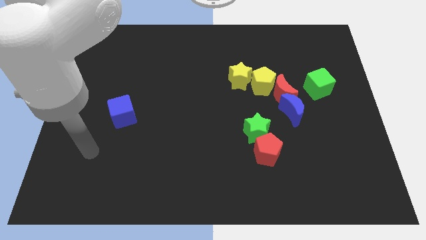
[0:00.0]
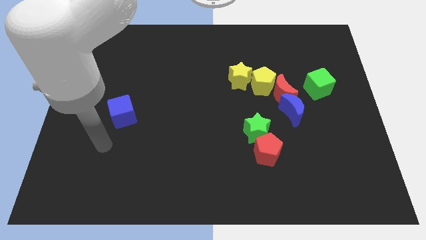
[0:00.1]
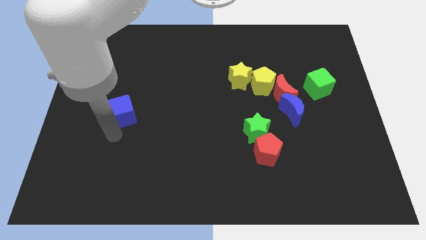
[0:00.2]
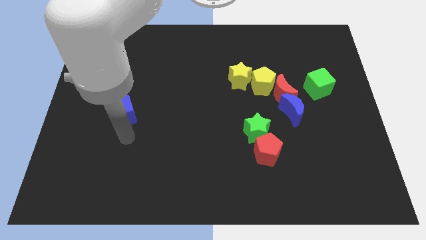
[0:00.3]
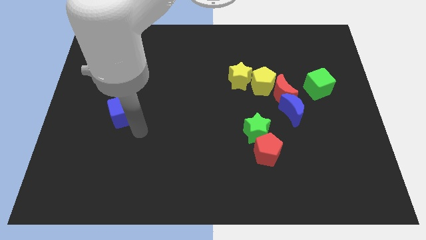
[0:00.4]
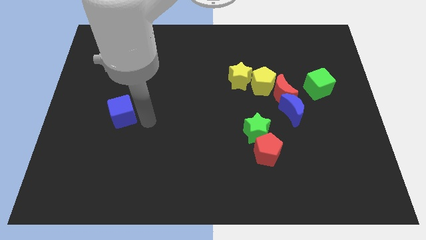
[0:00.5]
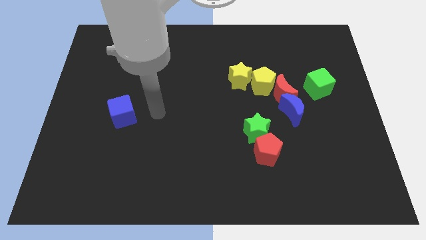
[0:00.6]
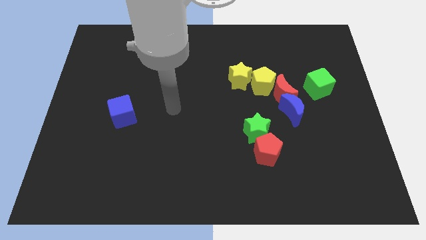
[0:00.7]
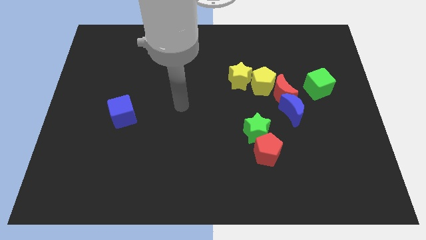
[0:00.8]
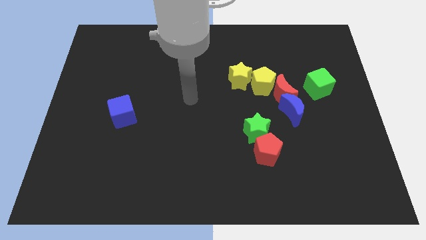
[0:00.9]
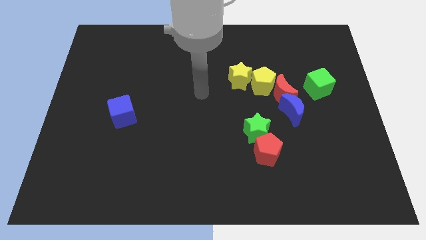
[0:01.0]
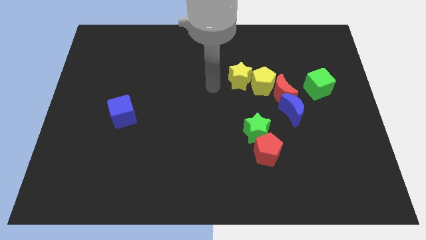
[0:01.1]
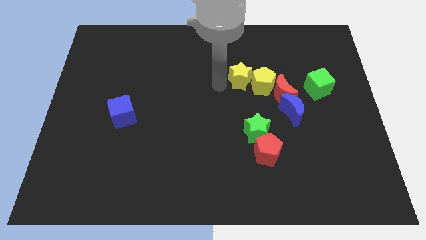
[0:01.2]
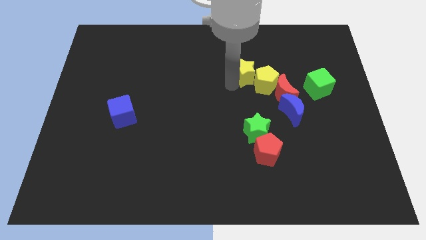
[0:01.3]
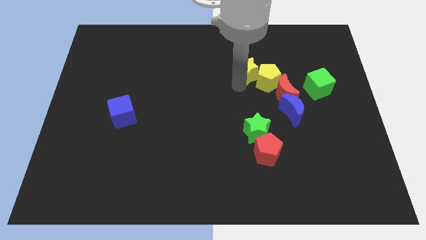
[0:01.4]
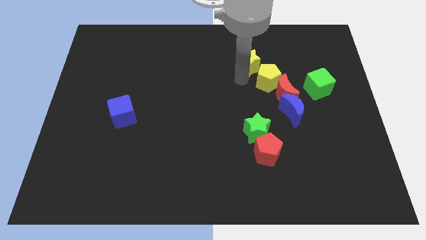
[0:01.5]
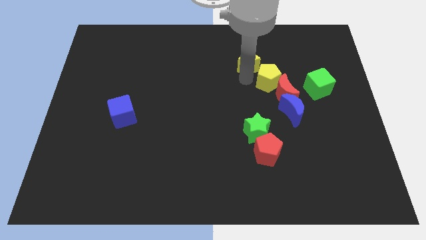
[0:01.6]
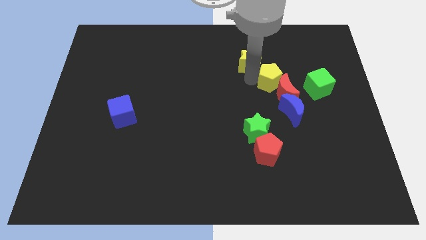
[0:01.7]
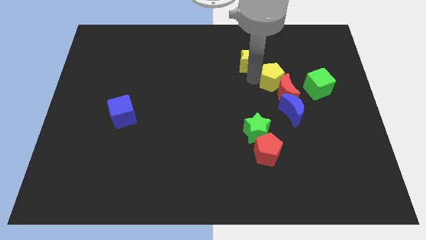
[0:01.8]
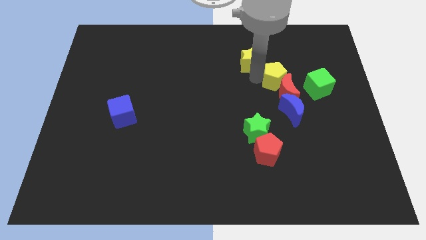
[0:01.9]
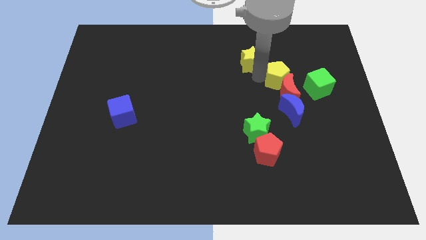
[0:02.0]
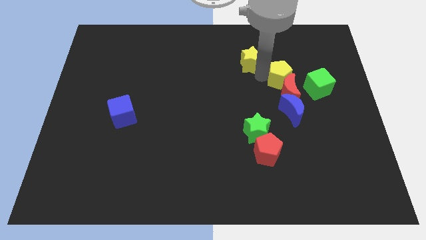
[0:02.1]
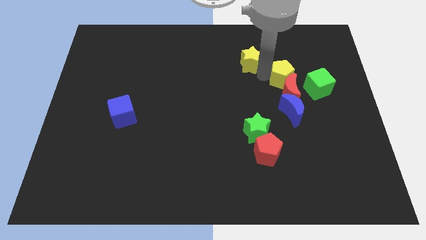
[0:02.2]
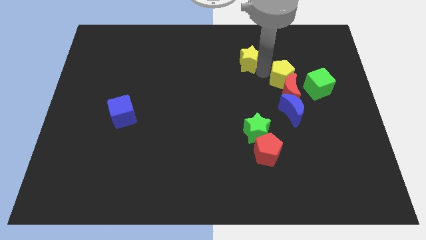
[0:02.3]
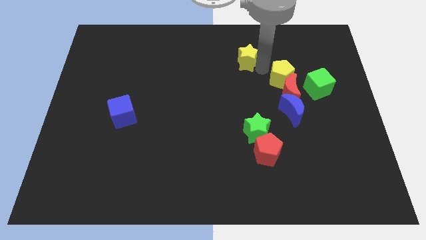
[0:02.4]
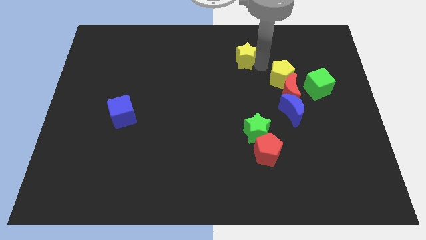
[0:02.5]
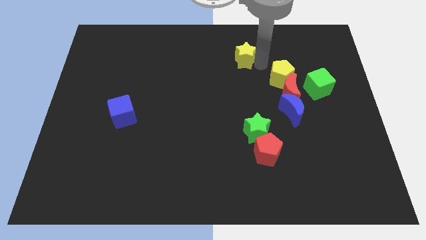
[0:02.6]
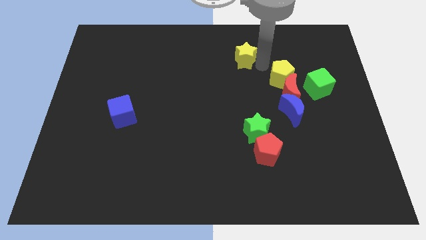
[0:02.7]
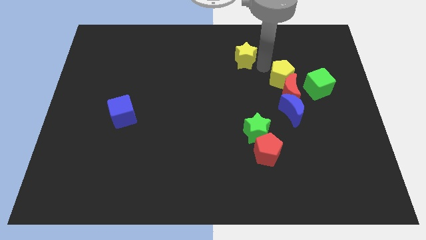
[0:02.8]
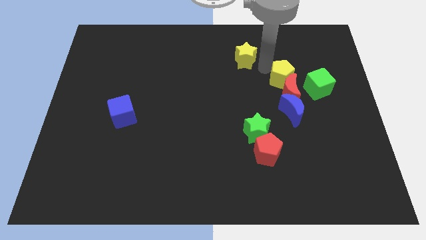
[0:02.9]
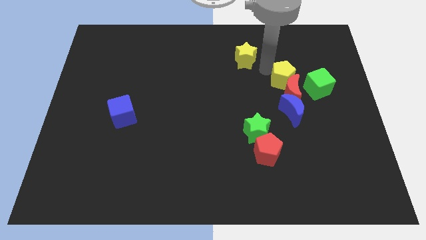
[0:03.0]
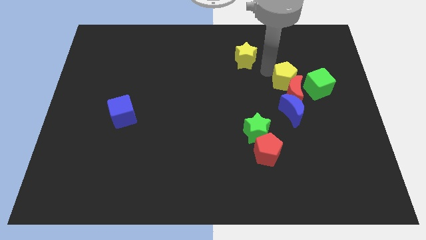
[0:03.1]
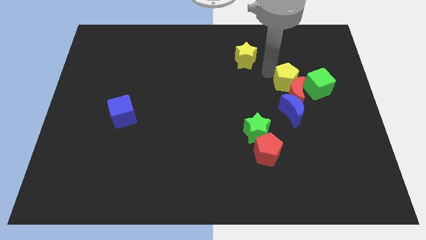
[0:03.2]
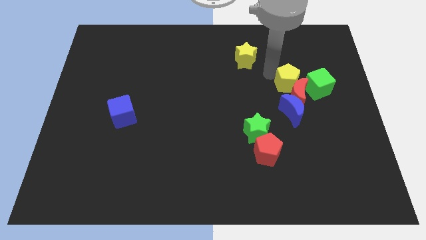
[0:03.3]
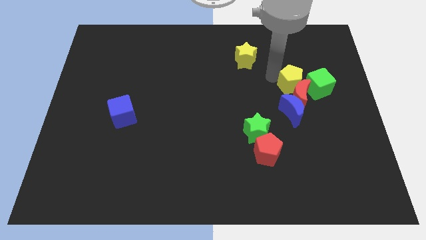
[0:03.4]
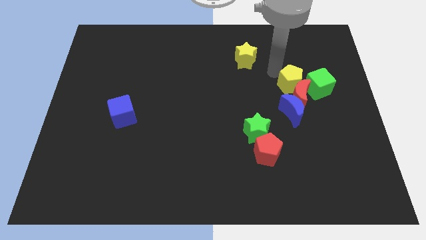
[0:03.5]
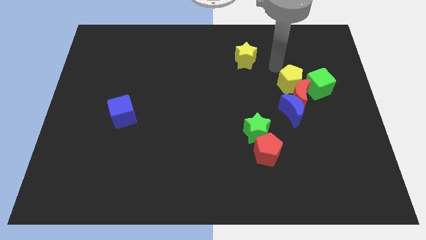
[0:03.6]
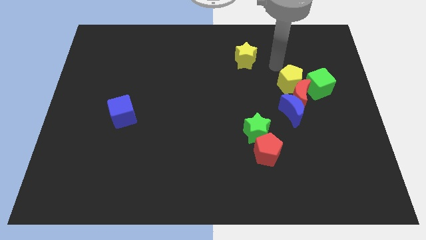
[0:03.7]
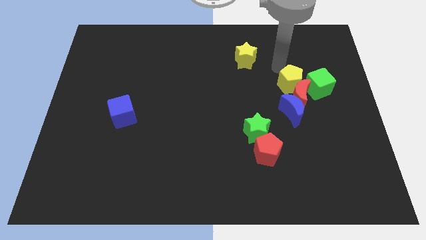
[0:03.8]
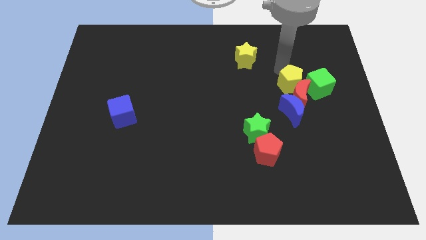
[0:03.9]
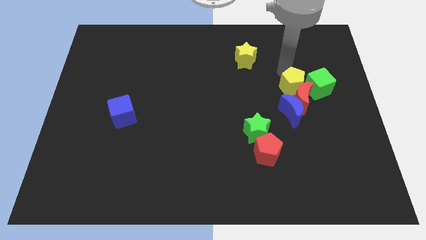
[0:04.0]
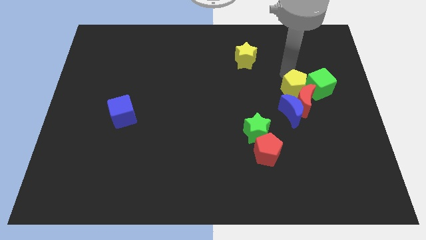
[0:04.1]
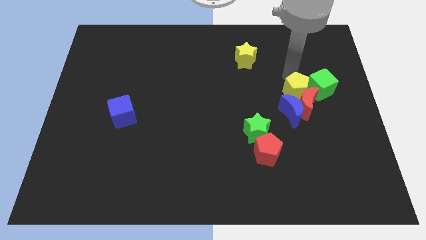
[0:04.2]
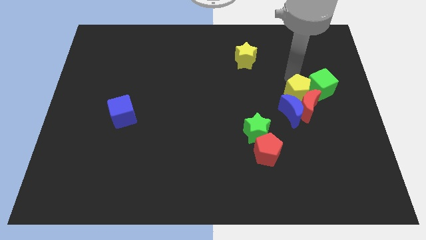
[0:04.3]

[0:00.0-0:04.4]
move the yellow pentagon a little bit downwards and then to the right

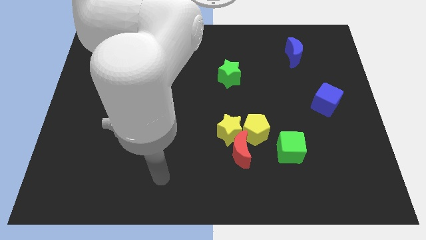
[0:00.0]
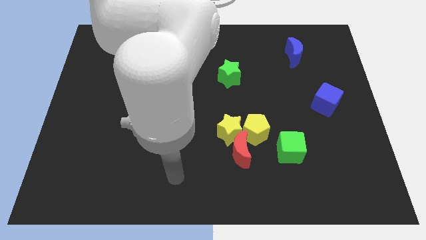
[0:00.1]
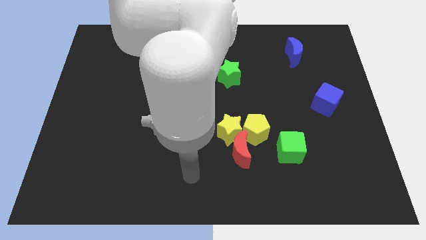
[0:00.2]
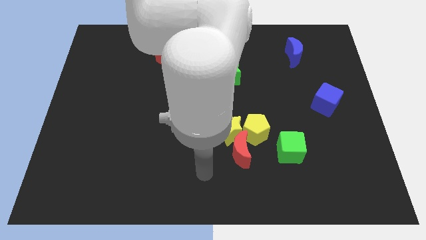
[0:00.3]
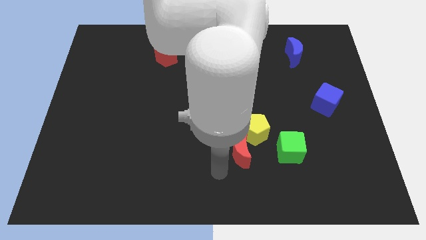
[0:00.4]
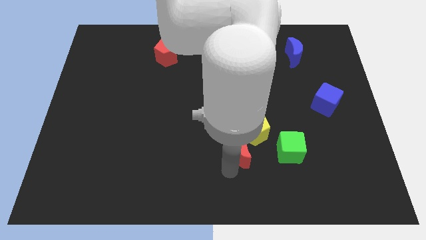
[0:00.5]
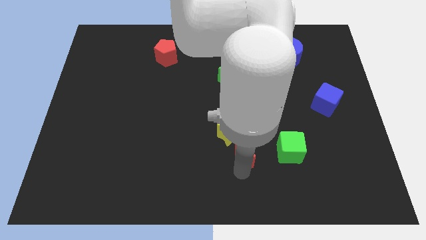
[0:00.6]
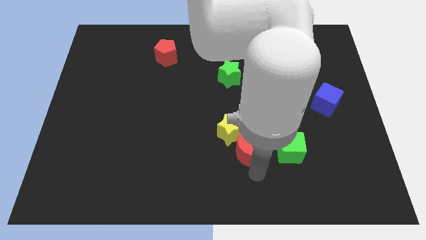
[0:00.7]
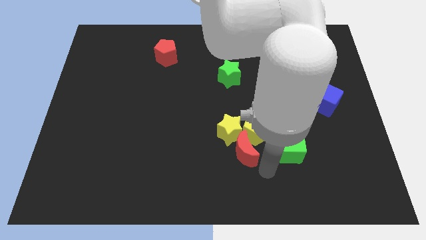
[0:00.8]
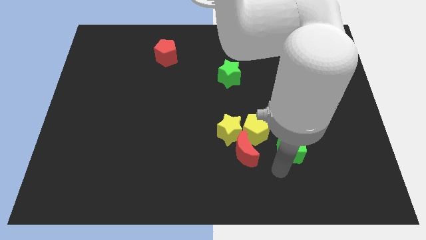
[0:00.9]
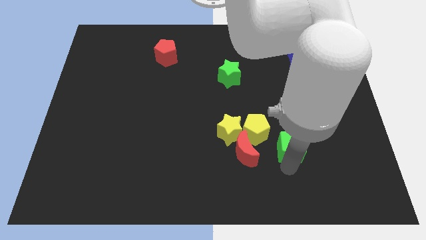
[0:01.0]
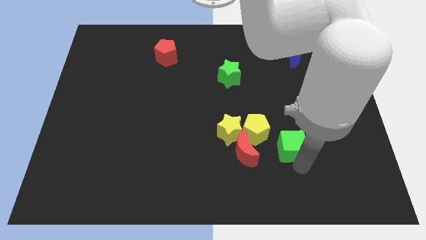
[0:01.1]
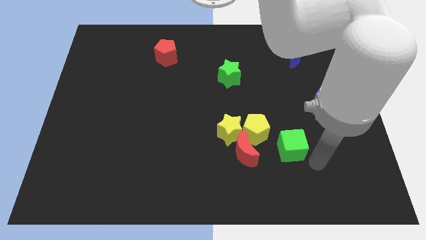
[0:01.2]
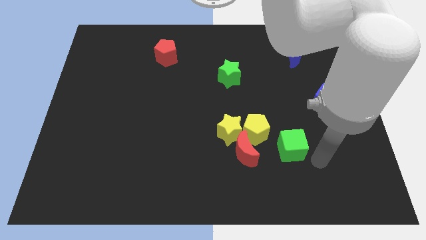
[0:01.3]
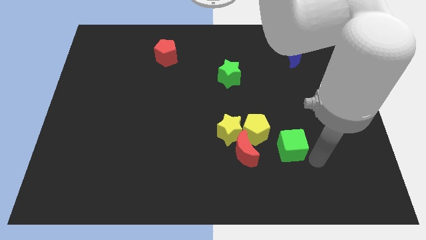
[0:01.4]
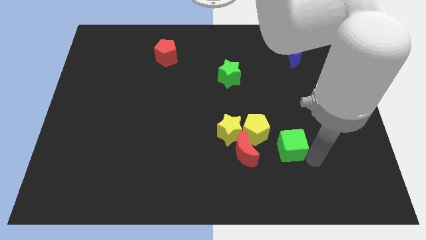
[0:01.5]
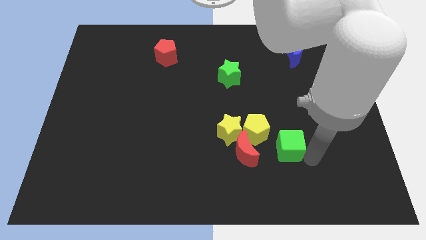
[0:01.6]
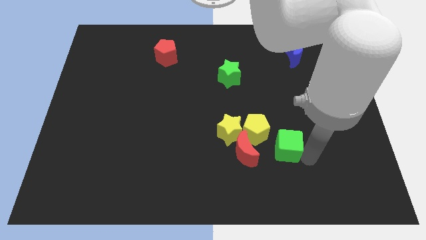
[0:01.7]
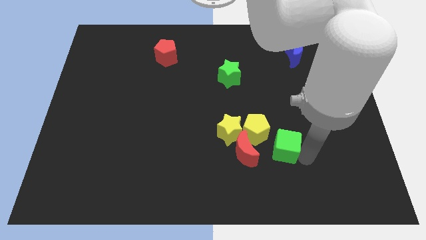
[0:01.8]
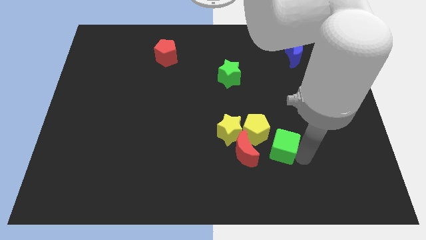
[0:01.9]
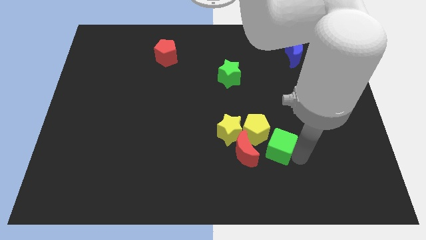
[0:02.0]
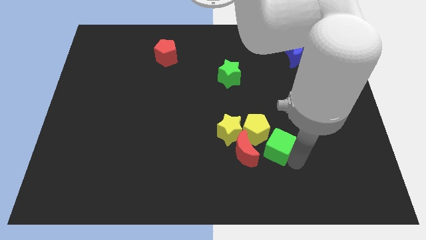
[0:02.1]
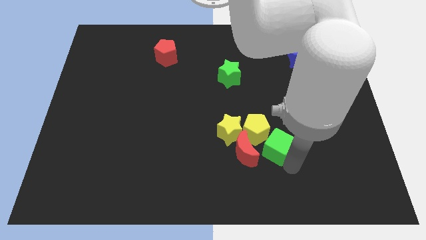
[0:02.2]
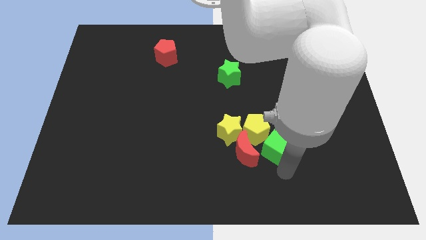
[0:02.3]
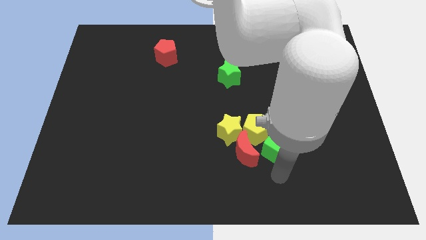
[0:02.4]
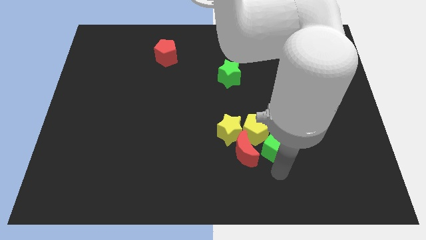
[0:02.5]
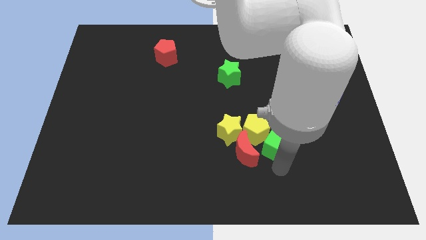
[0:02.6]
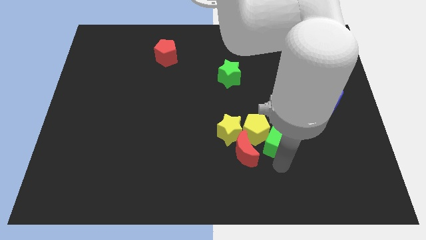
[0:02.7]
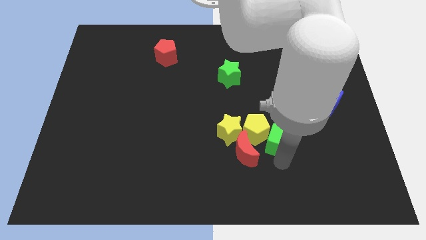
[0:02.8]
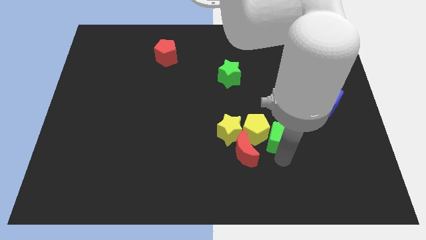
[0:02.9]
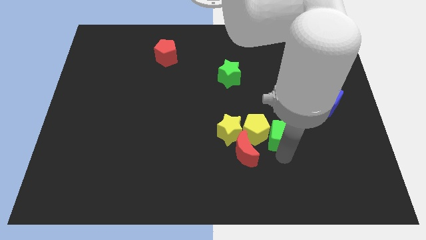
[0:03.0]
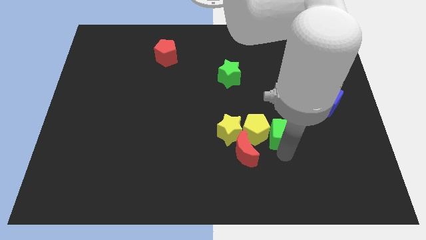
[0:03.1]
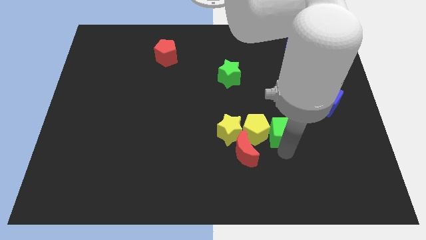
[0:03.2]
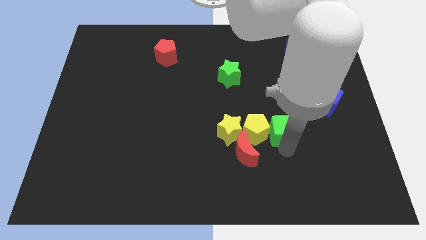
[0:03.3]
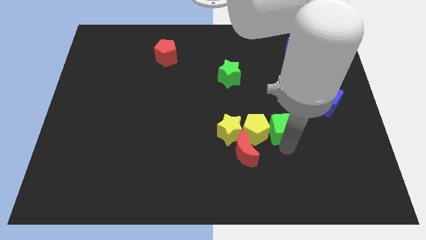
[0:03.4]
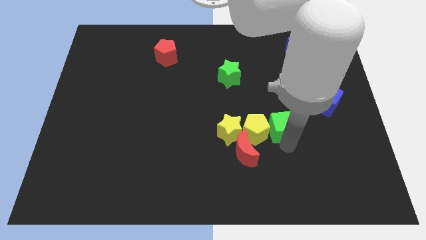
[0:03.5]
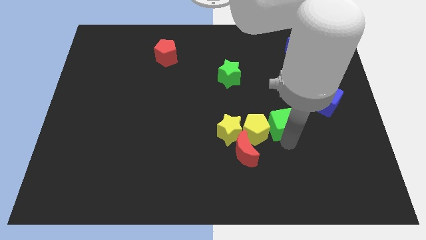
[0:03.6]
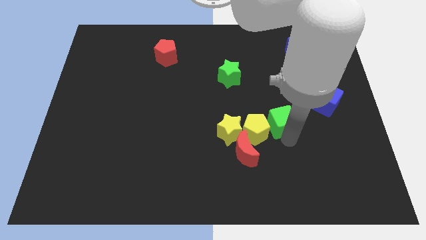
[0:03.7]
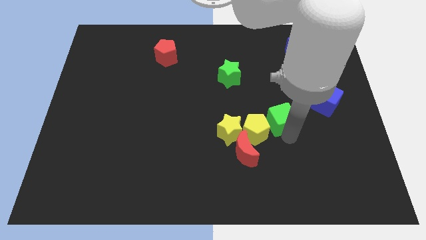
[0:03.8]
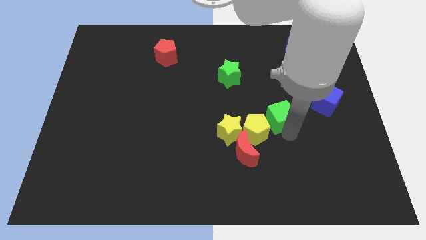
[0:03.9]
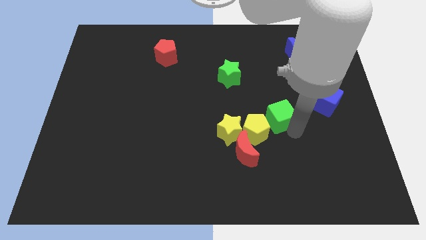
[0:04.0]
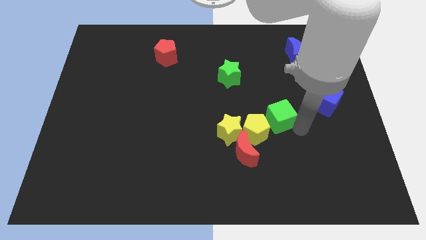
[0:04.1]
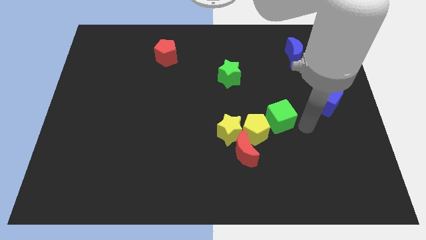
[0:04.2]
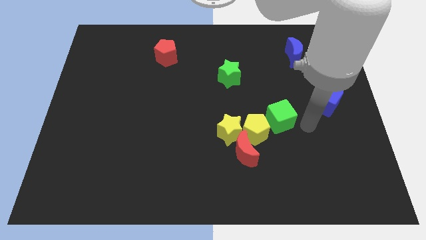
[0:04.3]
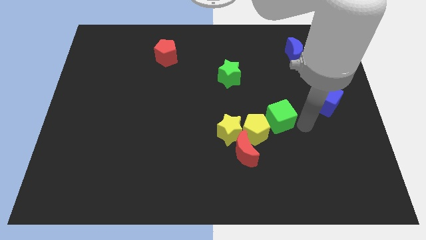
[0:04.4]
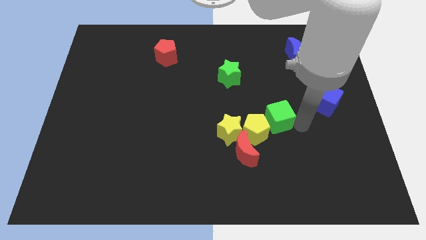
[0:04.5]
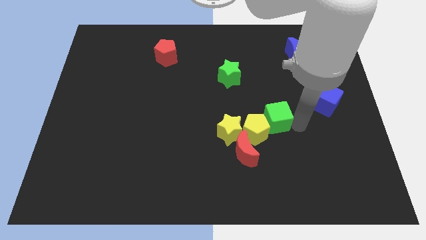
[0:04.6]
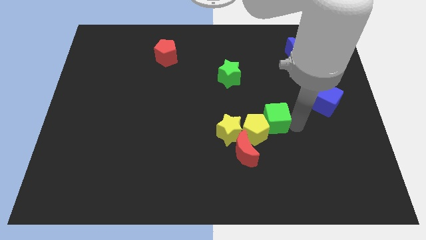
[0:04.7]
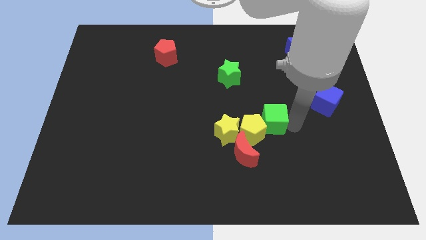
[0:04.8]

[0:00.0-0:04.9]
slightly push the green cube diagonally up and left
